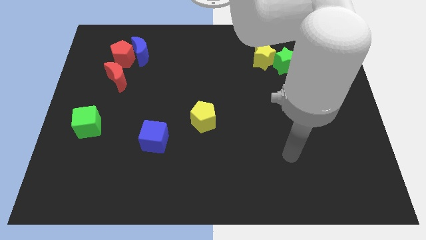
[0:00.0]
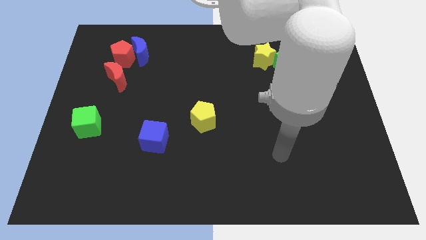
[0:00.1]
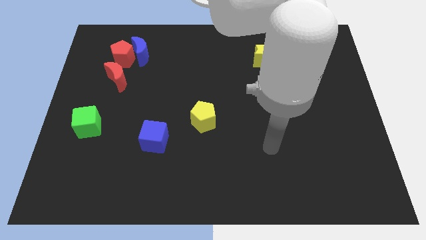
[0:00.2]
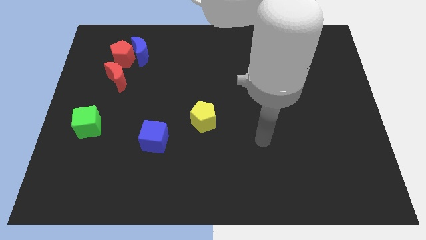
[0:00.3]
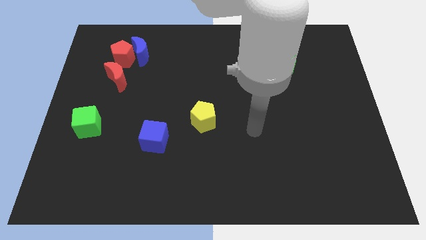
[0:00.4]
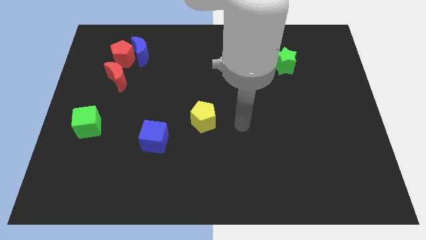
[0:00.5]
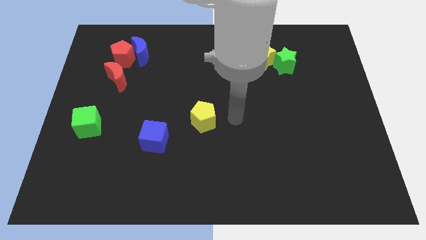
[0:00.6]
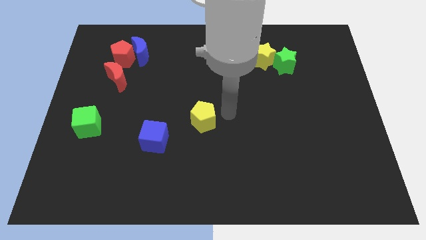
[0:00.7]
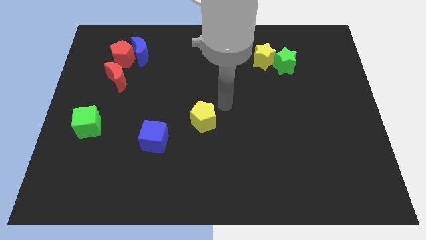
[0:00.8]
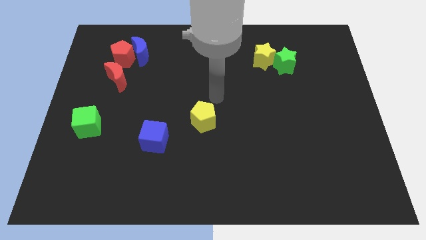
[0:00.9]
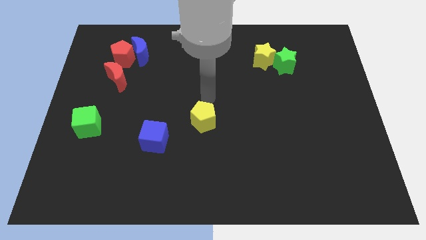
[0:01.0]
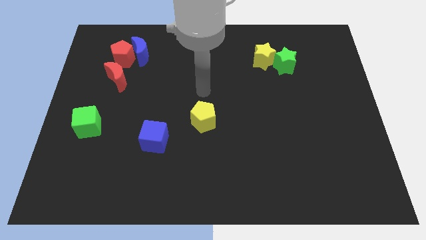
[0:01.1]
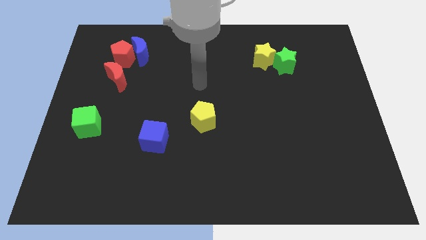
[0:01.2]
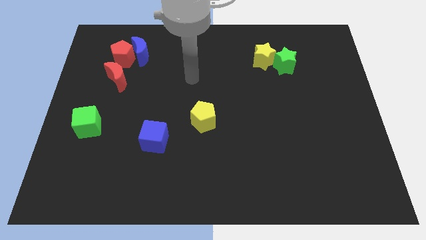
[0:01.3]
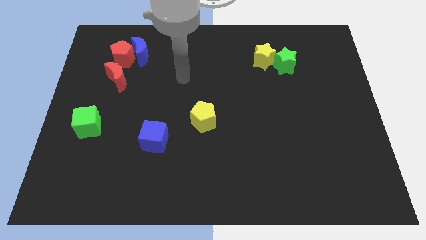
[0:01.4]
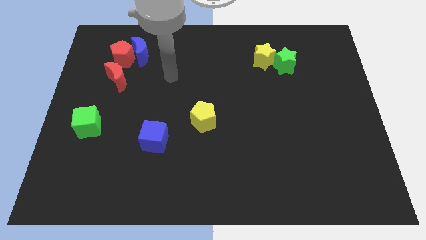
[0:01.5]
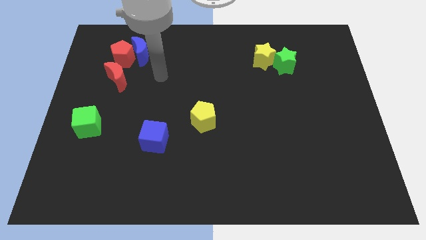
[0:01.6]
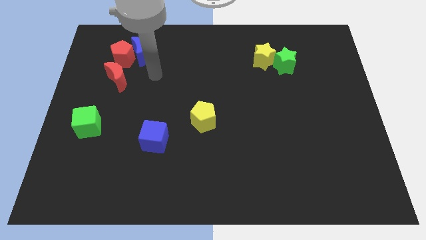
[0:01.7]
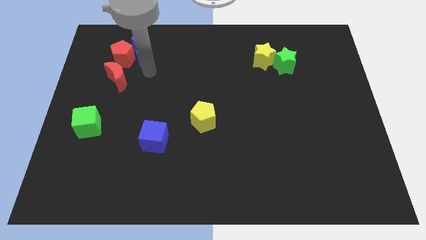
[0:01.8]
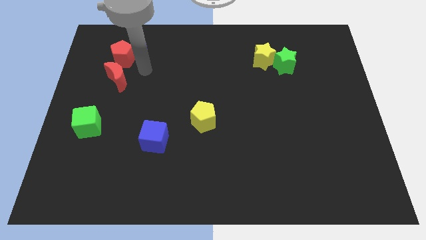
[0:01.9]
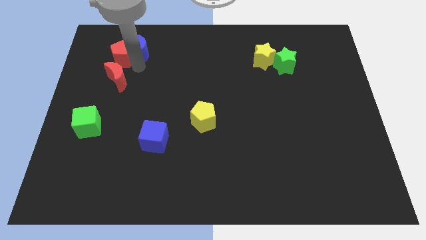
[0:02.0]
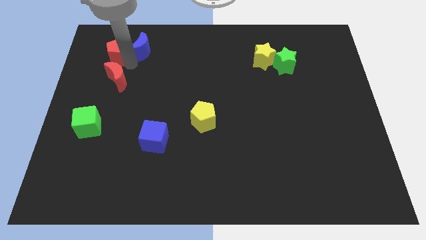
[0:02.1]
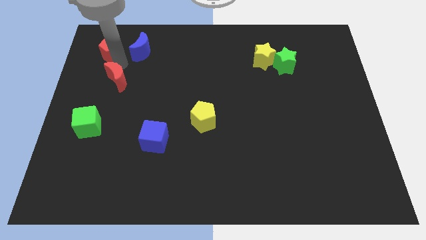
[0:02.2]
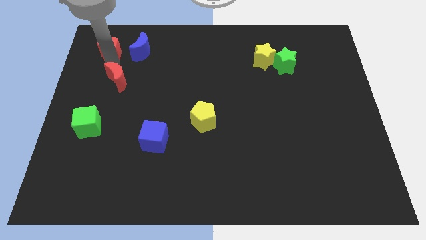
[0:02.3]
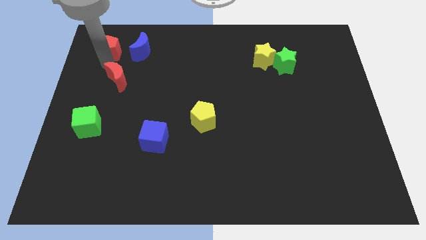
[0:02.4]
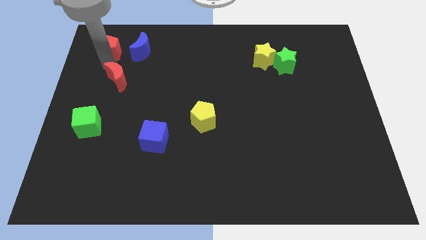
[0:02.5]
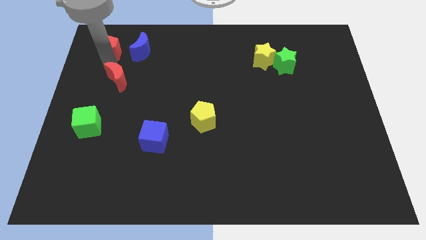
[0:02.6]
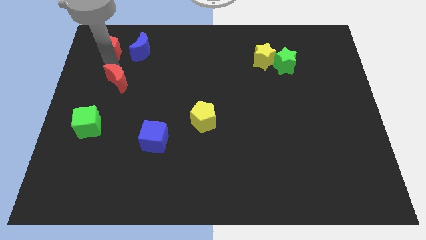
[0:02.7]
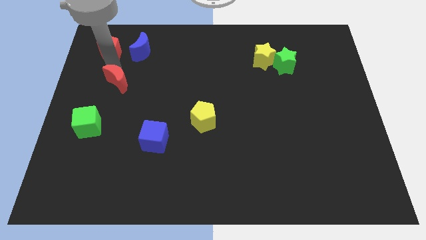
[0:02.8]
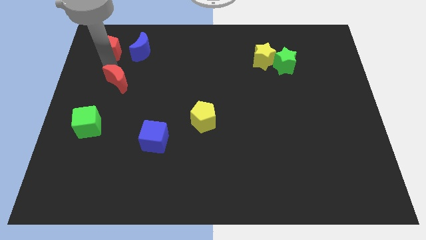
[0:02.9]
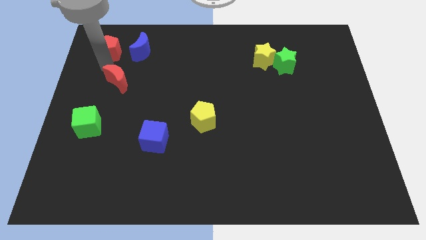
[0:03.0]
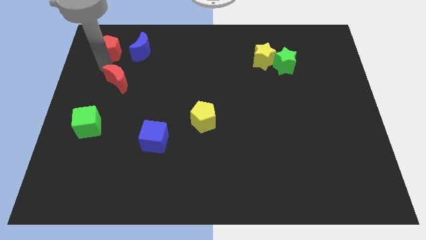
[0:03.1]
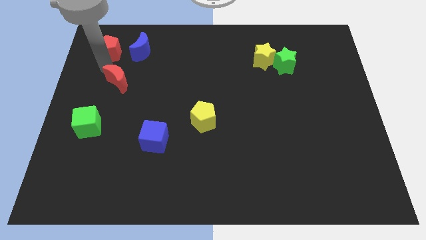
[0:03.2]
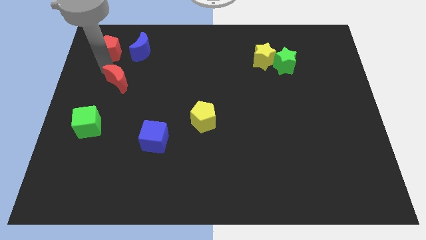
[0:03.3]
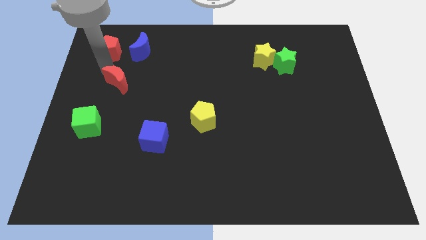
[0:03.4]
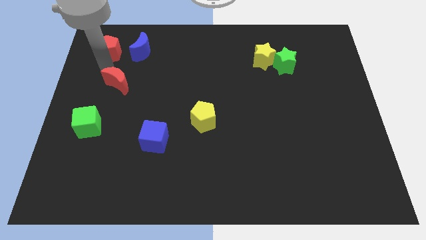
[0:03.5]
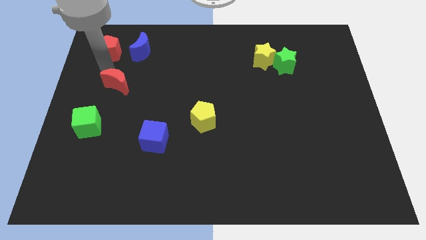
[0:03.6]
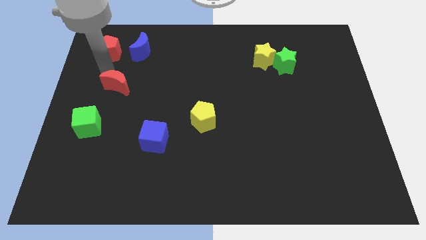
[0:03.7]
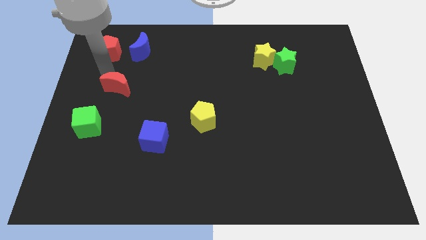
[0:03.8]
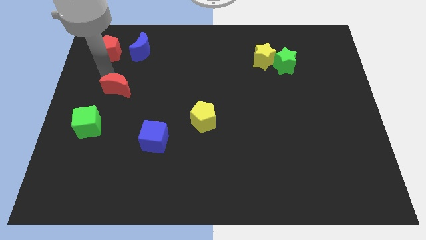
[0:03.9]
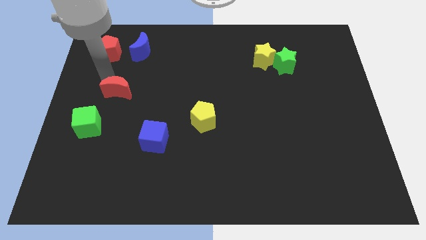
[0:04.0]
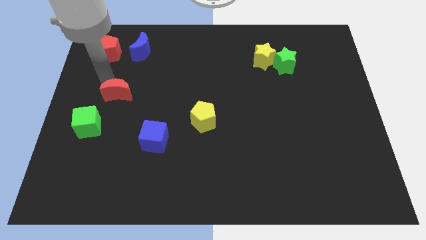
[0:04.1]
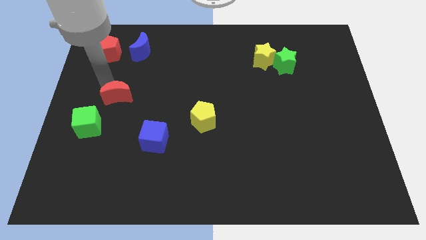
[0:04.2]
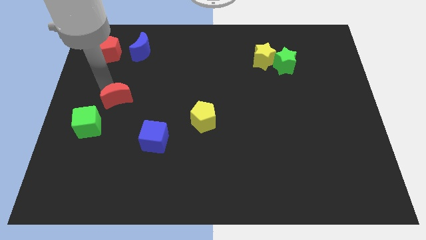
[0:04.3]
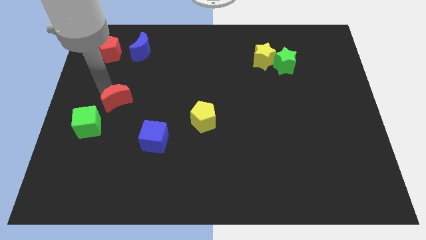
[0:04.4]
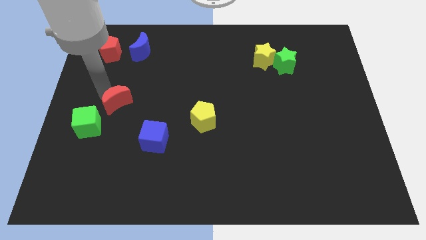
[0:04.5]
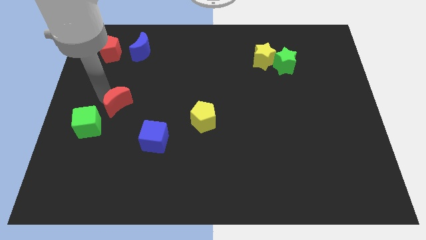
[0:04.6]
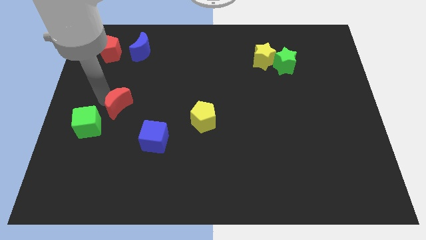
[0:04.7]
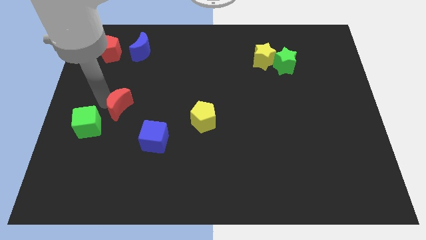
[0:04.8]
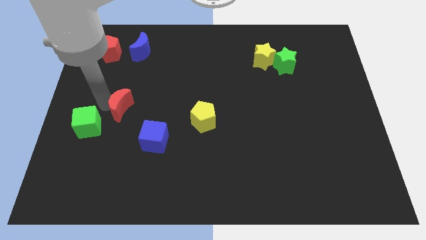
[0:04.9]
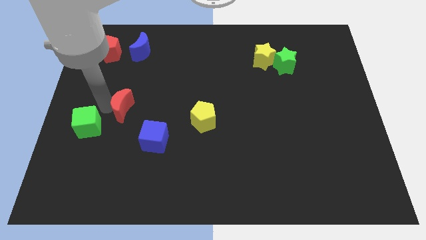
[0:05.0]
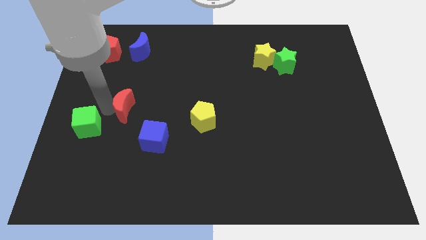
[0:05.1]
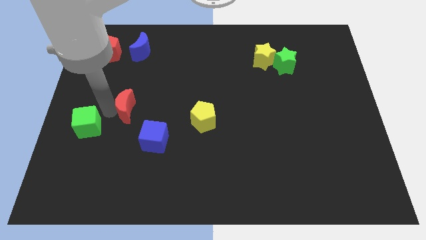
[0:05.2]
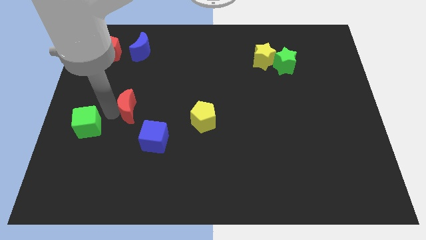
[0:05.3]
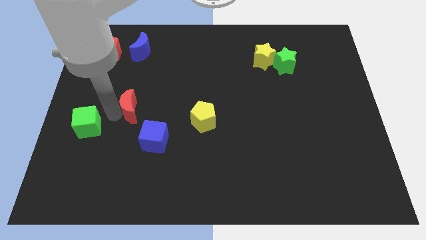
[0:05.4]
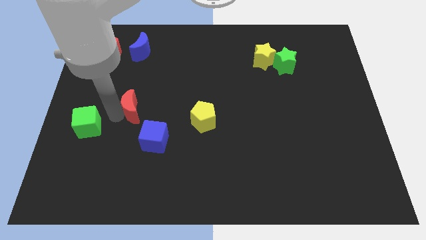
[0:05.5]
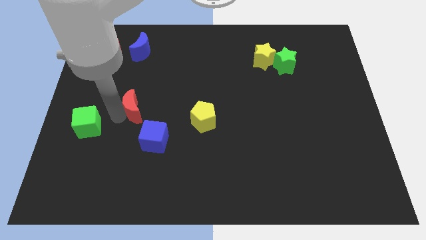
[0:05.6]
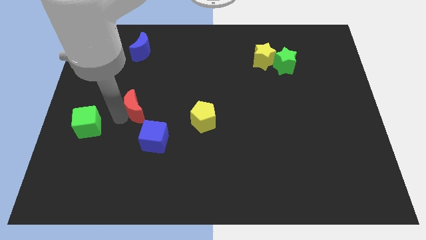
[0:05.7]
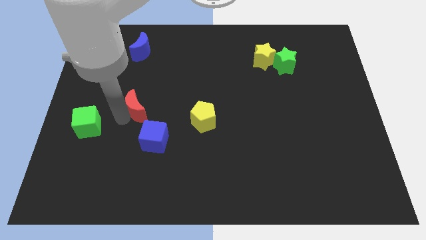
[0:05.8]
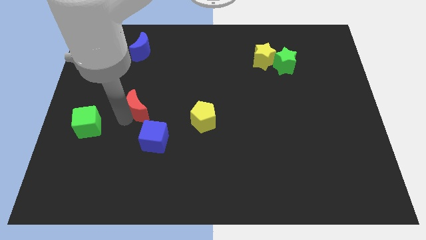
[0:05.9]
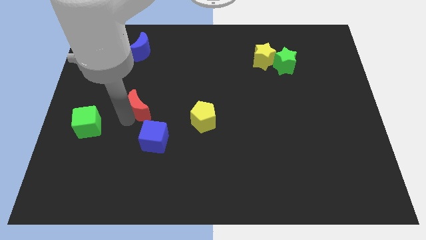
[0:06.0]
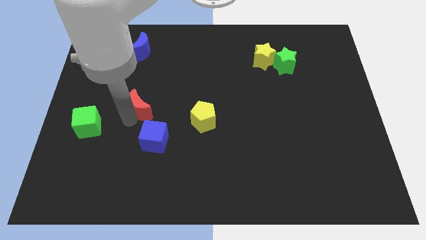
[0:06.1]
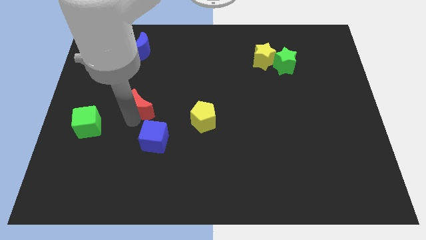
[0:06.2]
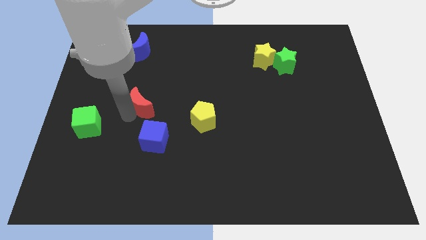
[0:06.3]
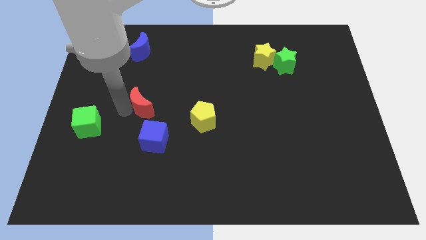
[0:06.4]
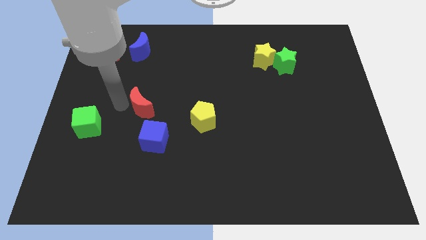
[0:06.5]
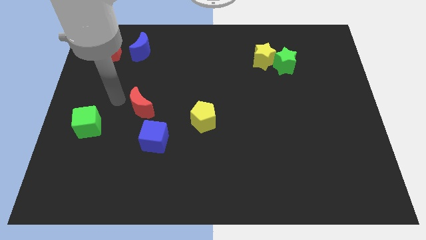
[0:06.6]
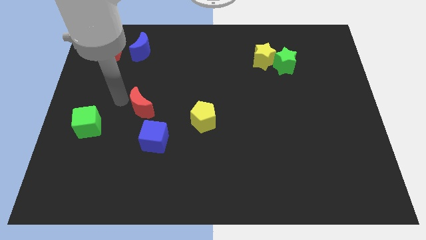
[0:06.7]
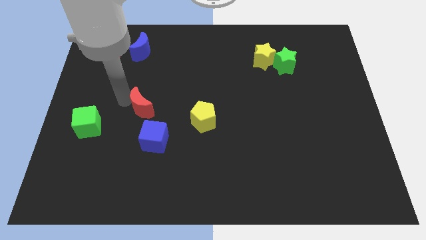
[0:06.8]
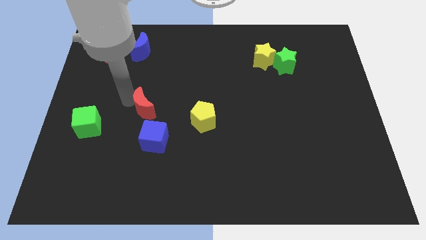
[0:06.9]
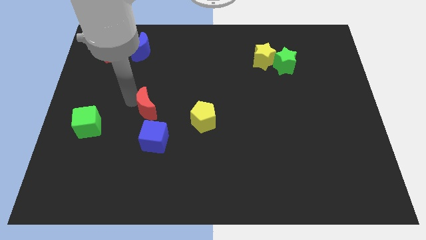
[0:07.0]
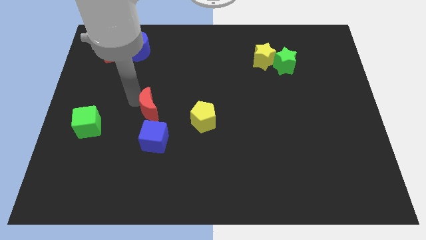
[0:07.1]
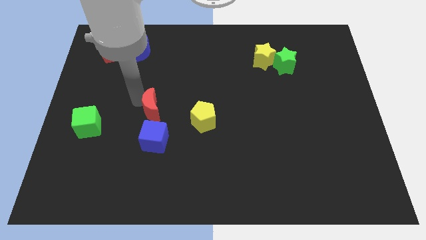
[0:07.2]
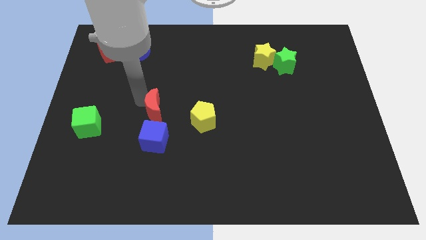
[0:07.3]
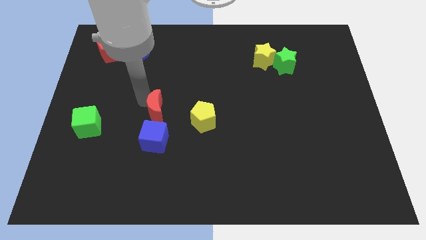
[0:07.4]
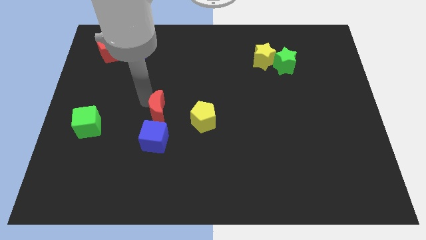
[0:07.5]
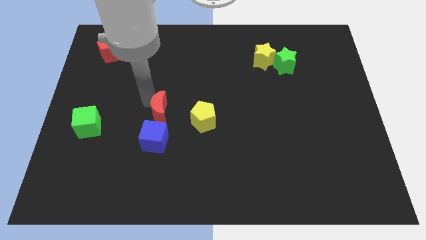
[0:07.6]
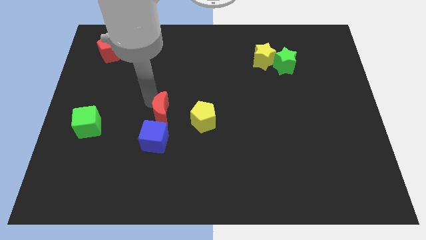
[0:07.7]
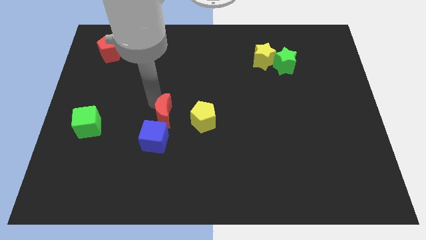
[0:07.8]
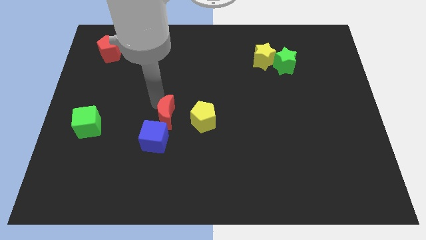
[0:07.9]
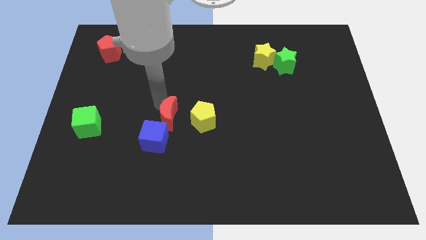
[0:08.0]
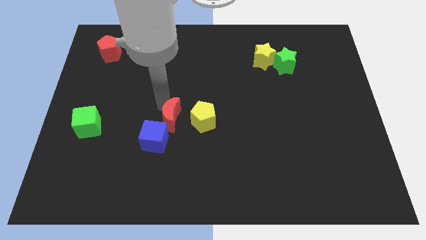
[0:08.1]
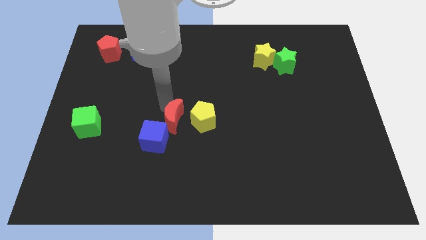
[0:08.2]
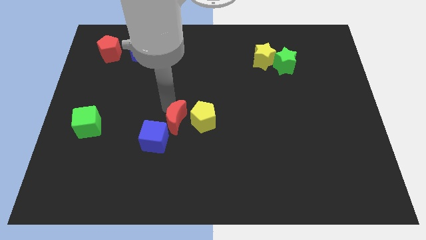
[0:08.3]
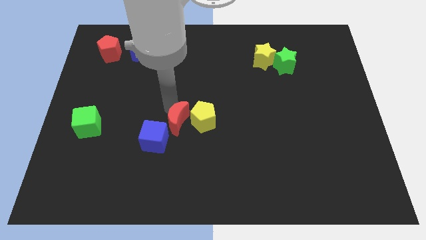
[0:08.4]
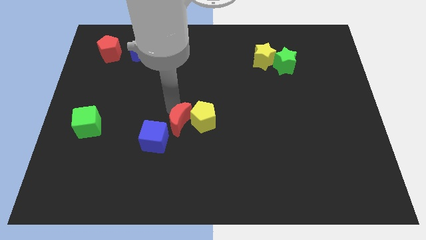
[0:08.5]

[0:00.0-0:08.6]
slide the red moon to the right of the blue cube
